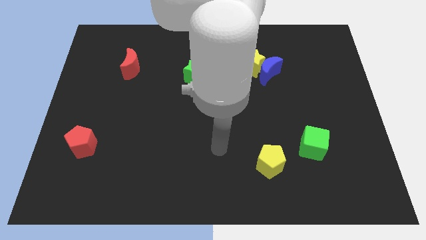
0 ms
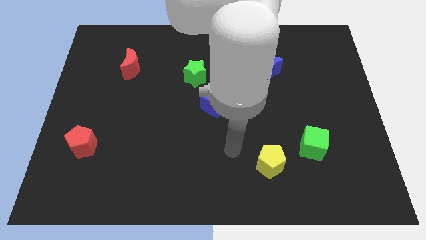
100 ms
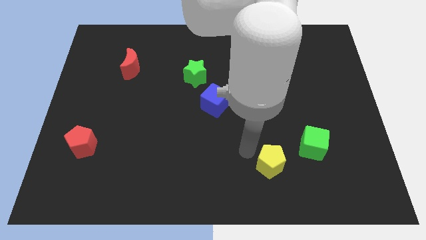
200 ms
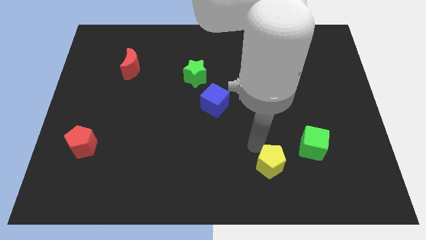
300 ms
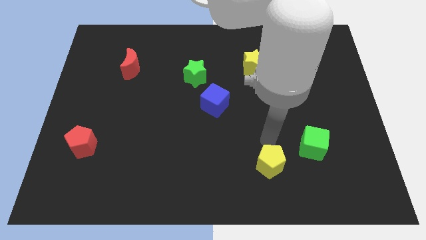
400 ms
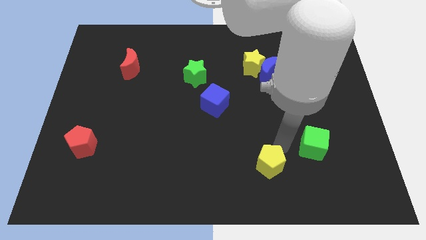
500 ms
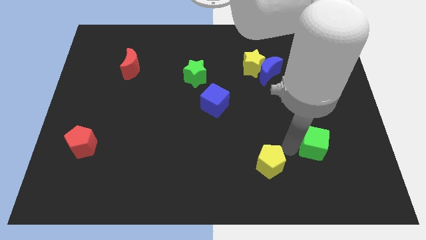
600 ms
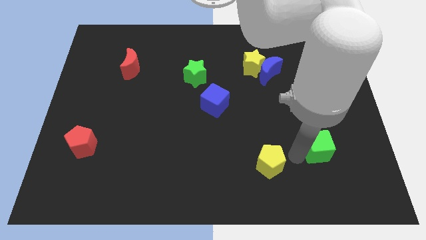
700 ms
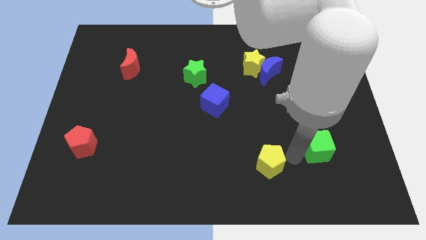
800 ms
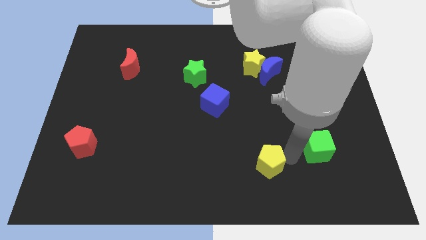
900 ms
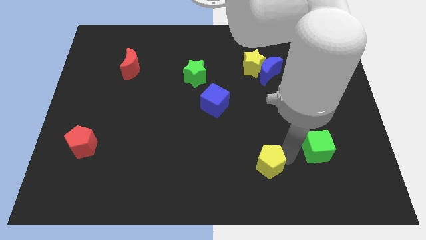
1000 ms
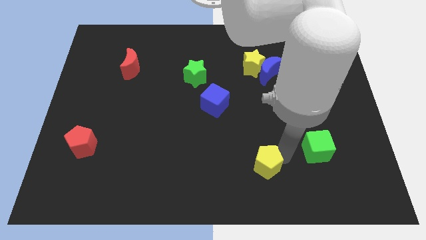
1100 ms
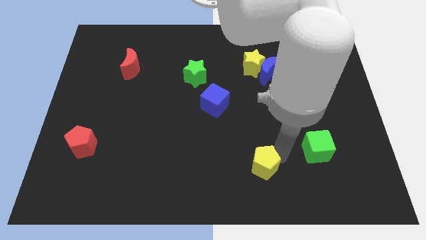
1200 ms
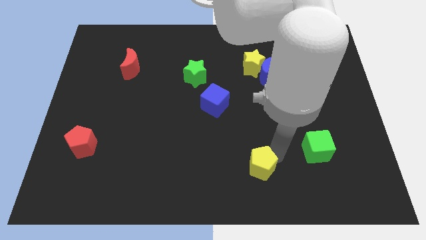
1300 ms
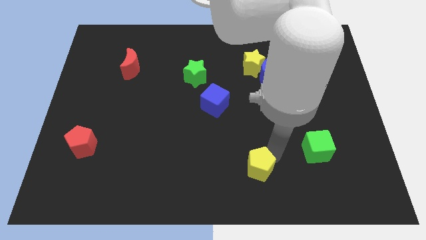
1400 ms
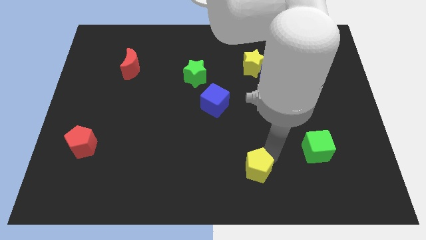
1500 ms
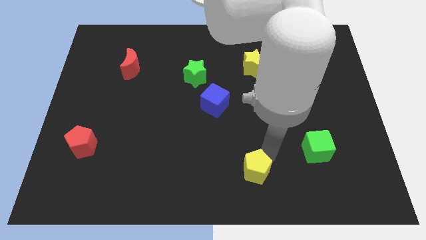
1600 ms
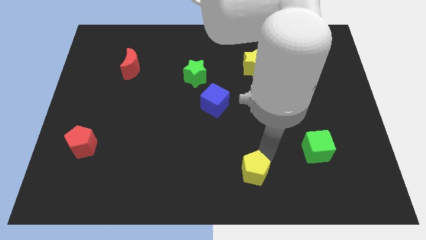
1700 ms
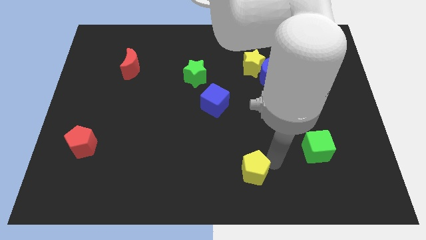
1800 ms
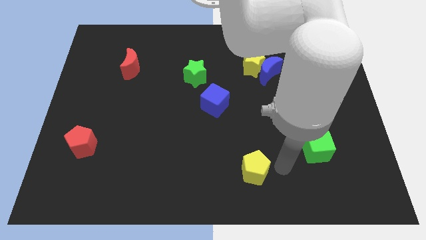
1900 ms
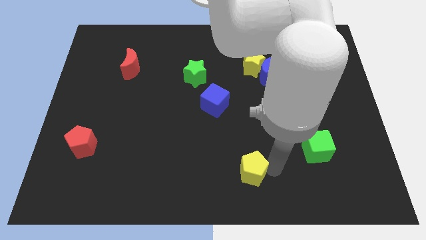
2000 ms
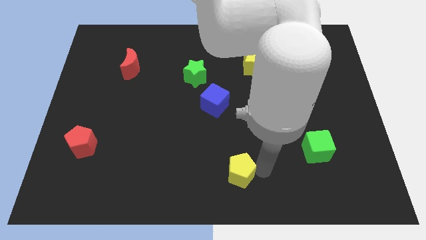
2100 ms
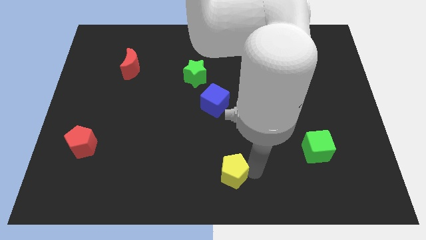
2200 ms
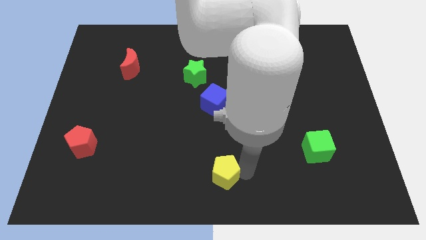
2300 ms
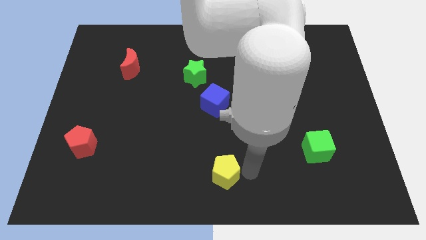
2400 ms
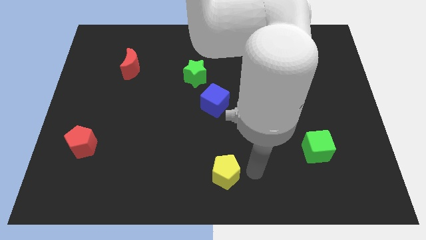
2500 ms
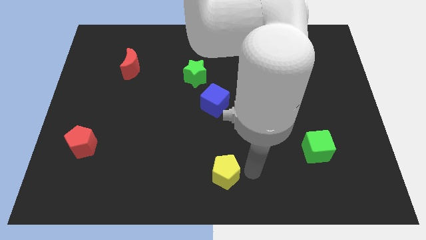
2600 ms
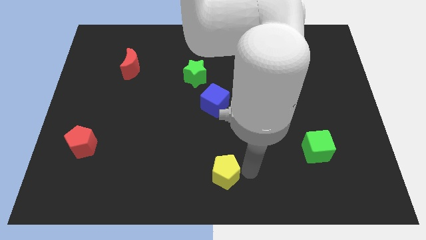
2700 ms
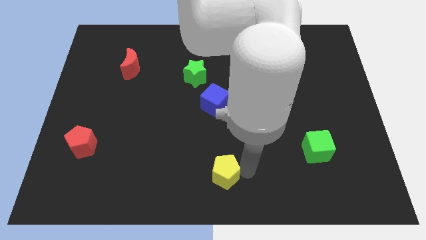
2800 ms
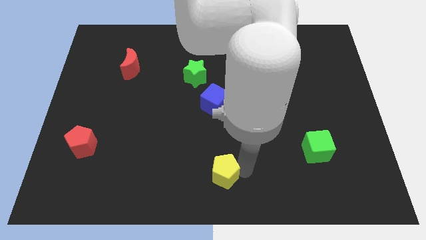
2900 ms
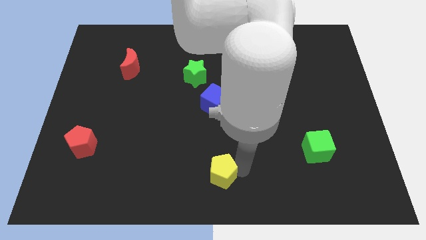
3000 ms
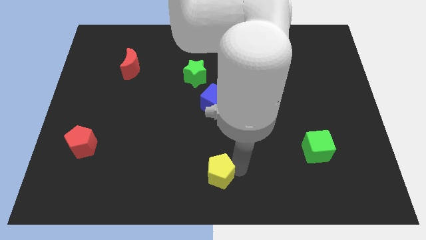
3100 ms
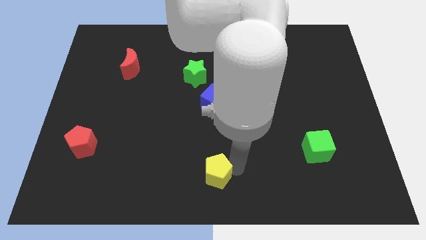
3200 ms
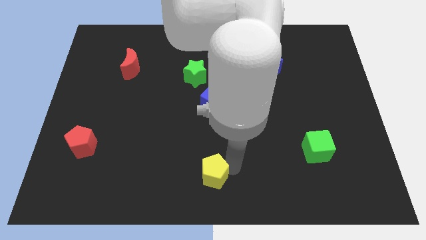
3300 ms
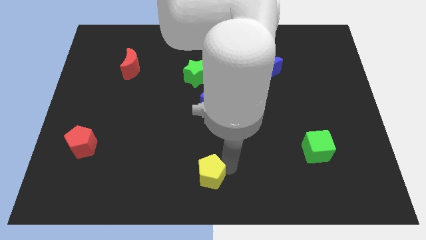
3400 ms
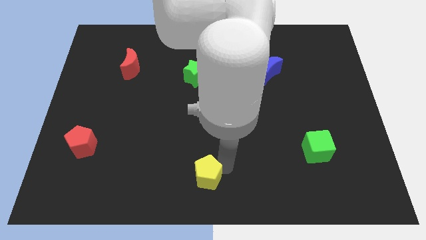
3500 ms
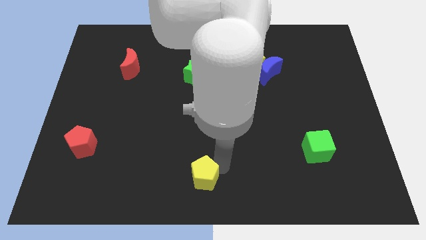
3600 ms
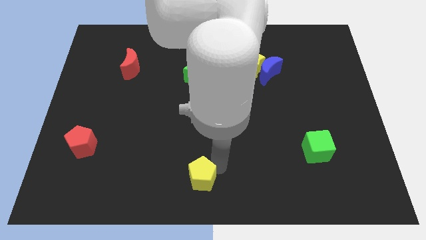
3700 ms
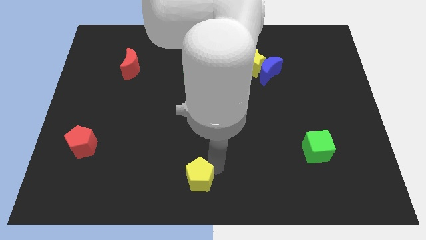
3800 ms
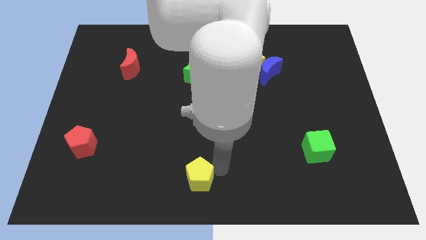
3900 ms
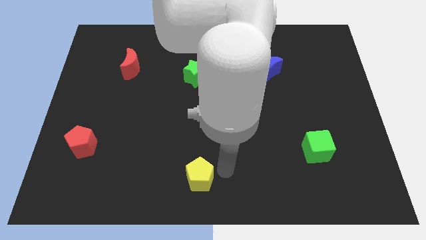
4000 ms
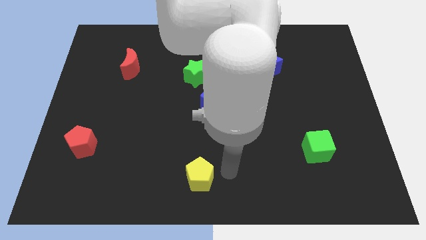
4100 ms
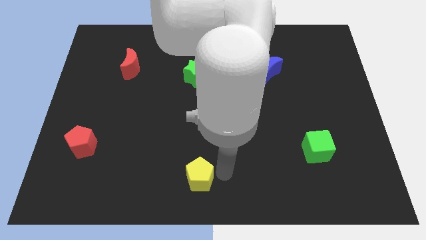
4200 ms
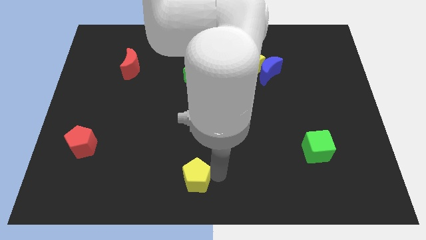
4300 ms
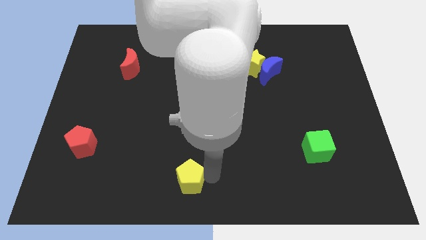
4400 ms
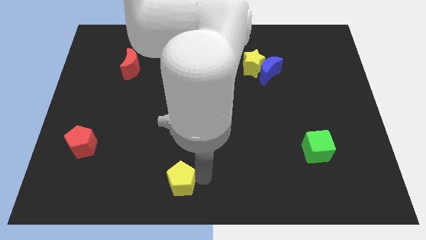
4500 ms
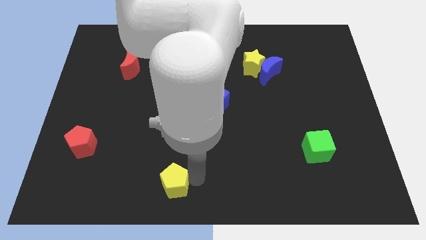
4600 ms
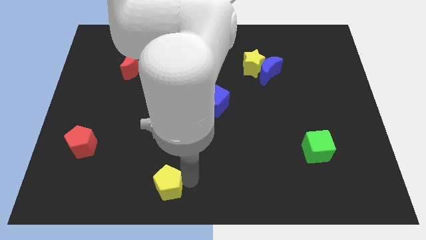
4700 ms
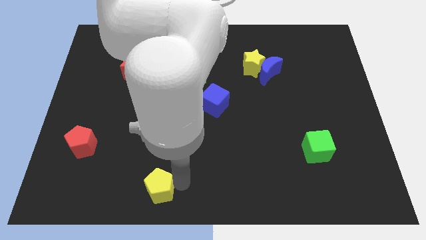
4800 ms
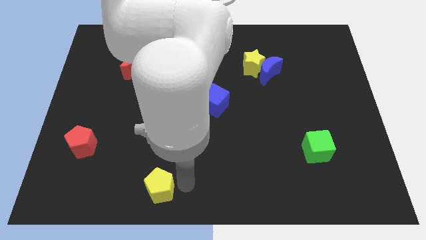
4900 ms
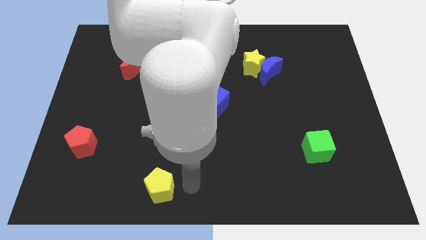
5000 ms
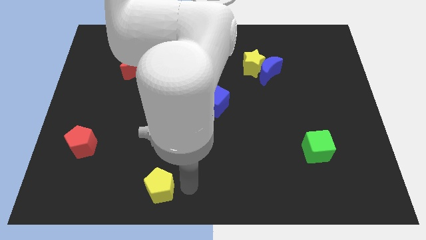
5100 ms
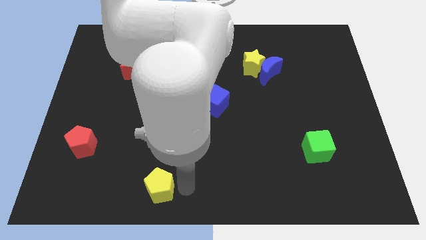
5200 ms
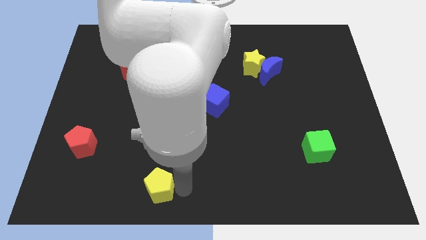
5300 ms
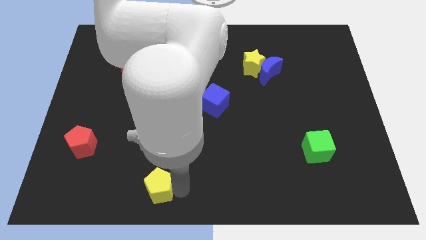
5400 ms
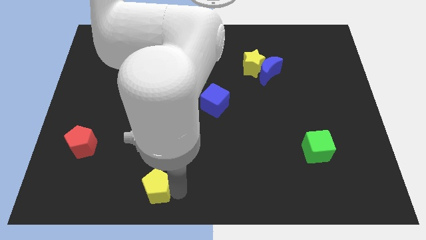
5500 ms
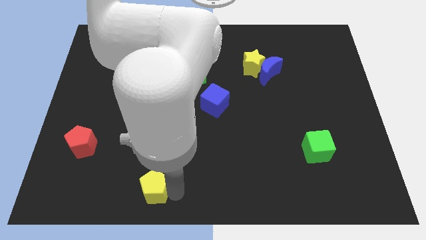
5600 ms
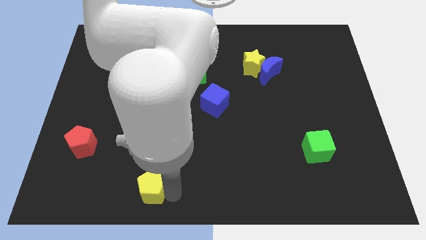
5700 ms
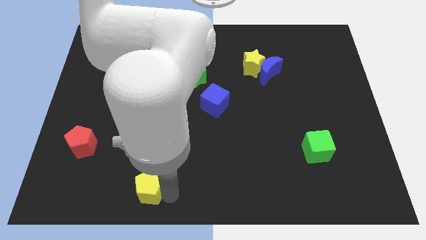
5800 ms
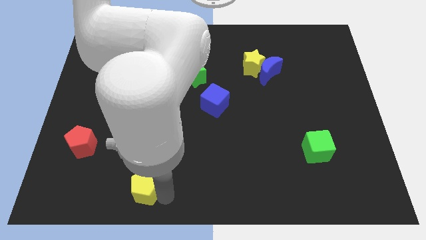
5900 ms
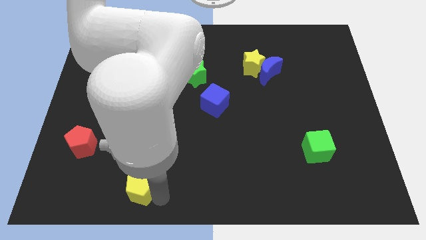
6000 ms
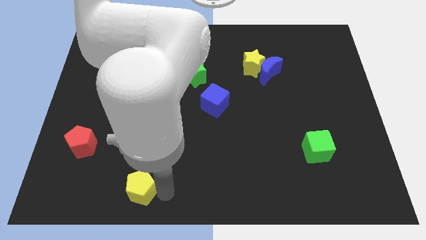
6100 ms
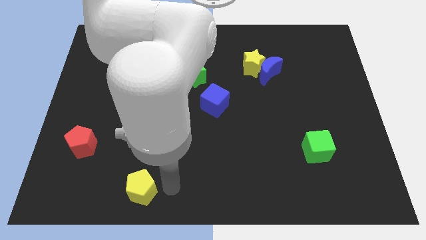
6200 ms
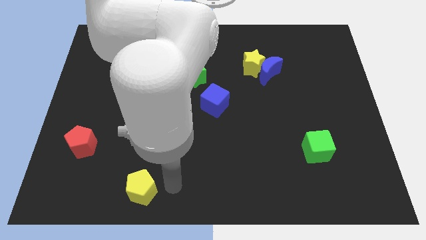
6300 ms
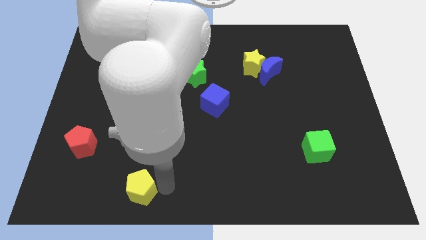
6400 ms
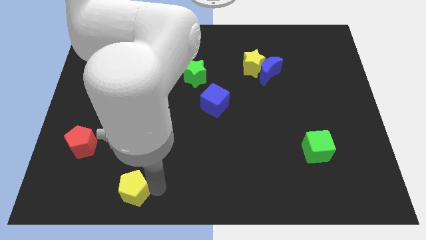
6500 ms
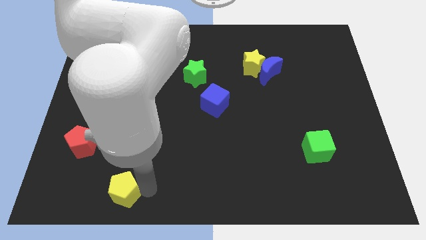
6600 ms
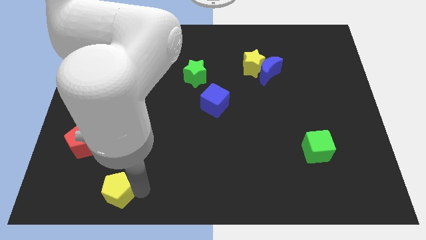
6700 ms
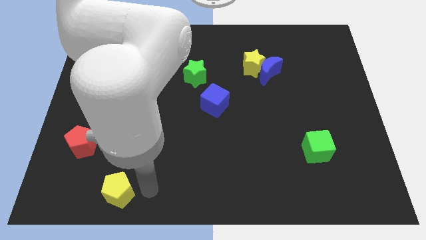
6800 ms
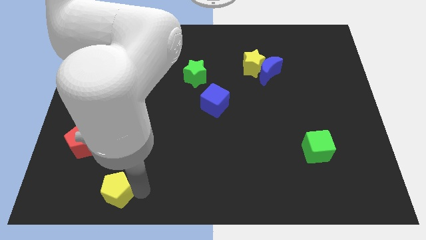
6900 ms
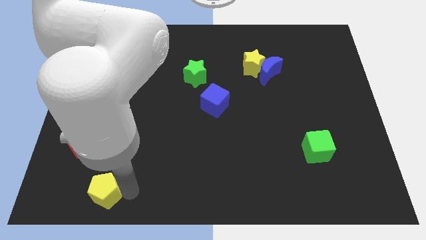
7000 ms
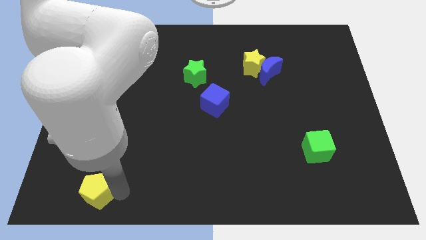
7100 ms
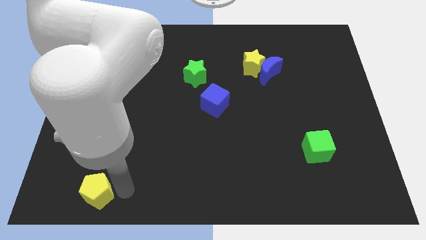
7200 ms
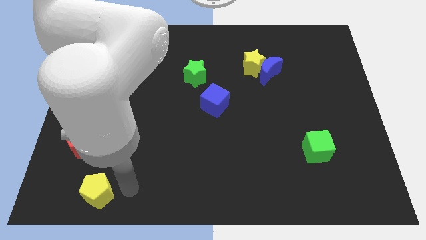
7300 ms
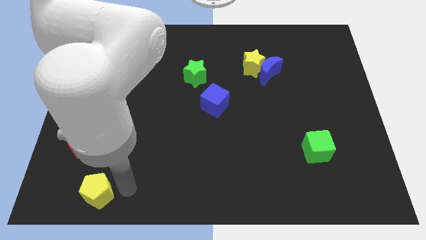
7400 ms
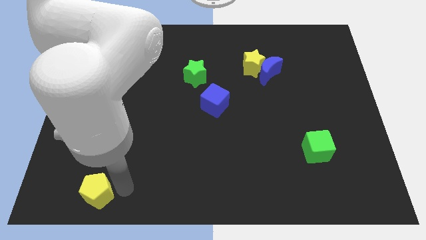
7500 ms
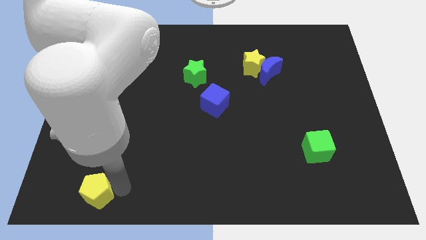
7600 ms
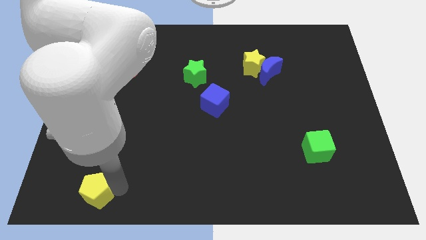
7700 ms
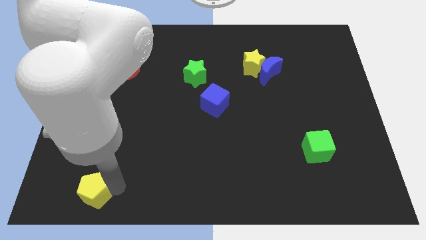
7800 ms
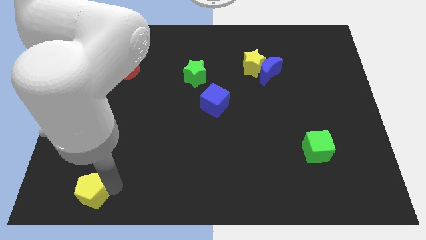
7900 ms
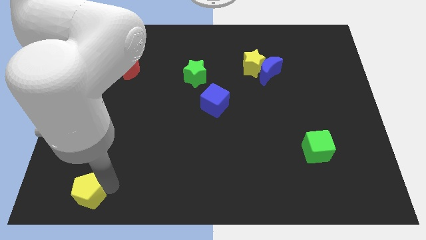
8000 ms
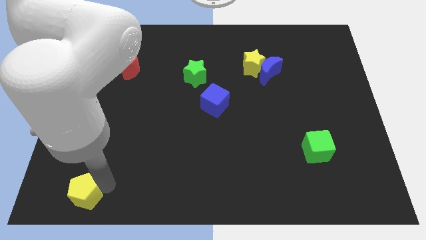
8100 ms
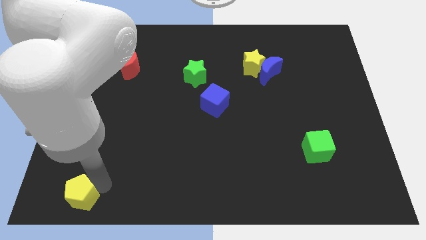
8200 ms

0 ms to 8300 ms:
put the yellow pentagon to the bottom left
